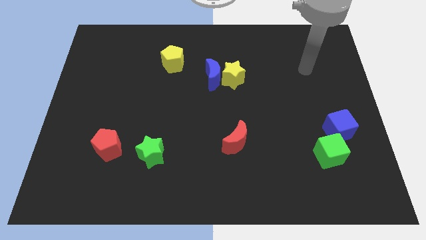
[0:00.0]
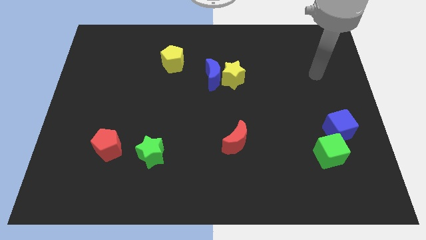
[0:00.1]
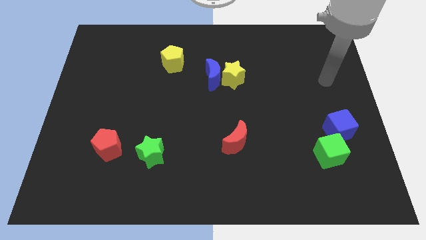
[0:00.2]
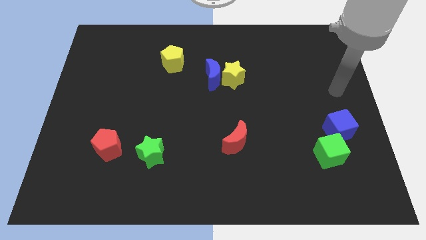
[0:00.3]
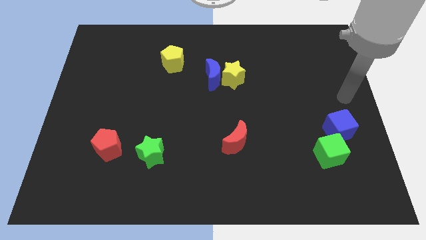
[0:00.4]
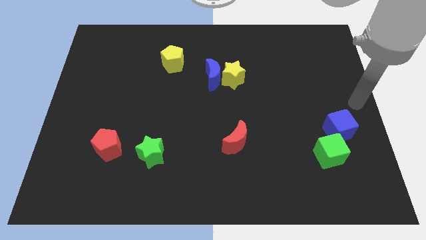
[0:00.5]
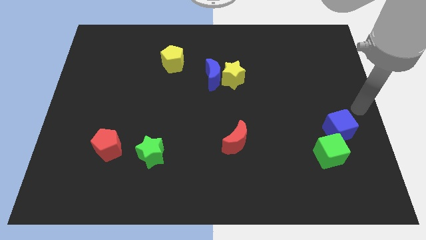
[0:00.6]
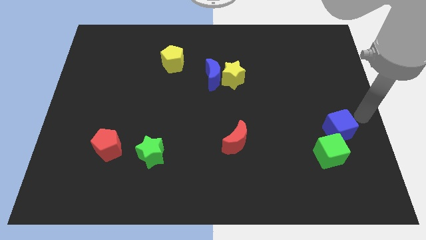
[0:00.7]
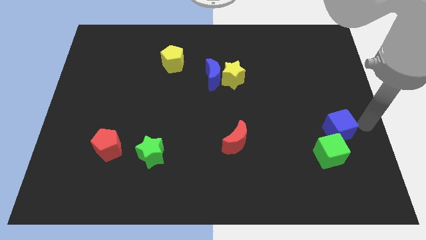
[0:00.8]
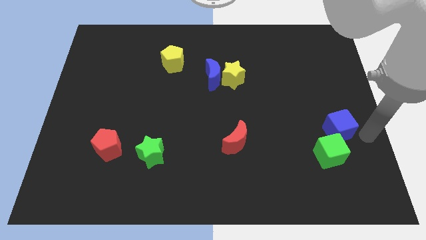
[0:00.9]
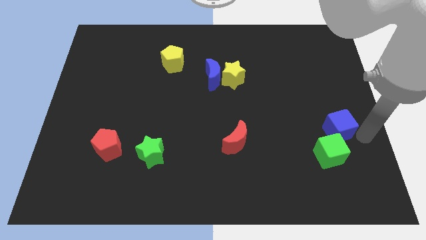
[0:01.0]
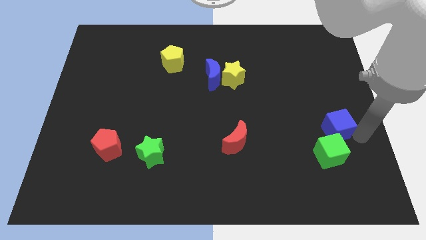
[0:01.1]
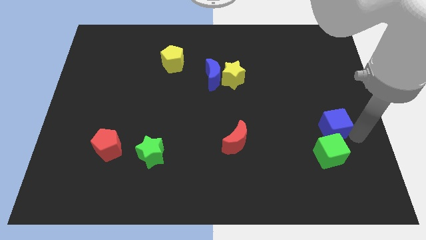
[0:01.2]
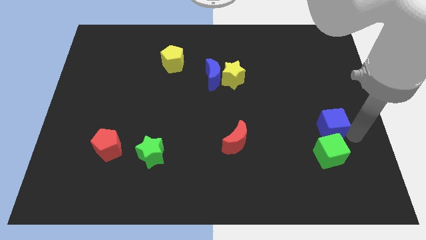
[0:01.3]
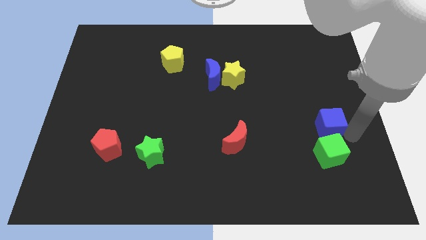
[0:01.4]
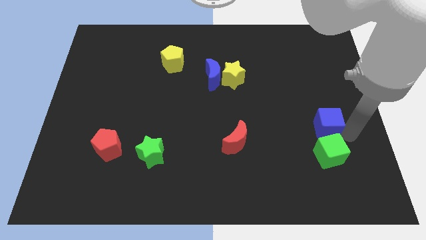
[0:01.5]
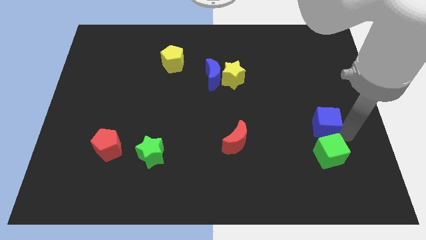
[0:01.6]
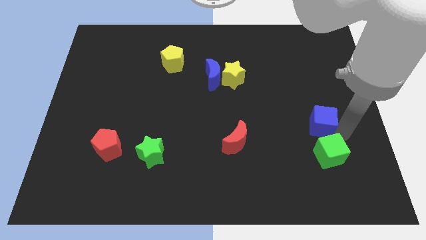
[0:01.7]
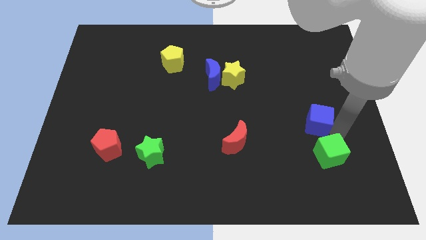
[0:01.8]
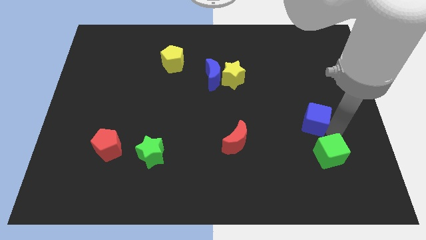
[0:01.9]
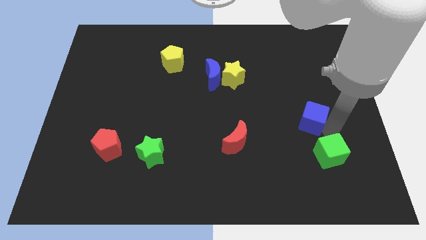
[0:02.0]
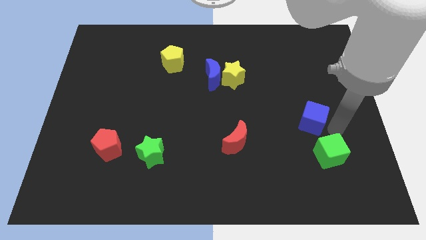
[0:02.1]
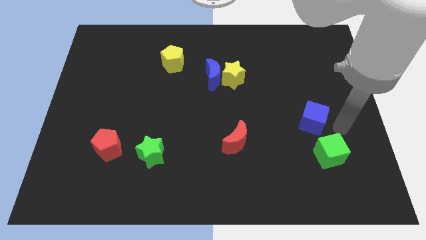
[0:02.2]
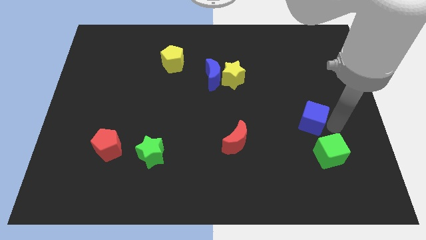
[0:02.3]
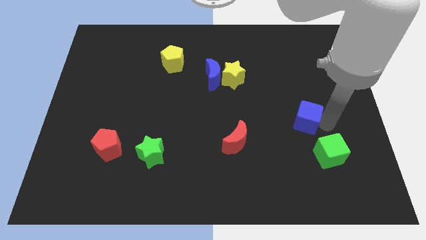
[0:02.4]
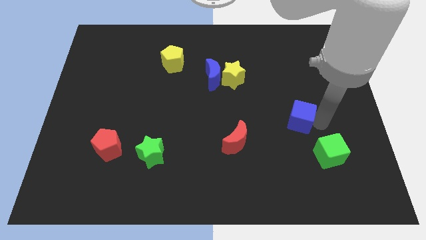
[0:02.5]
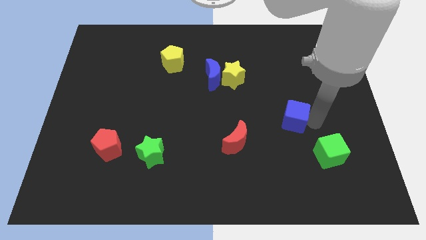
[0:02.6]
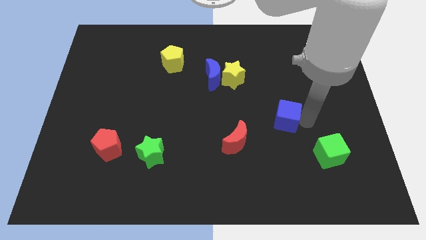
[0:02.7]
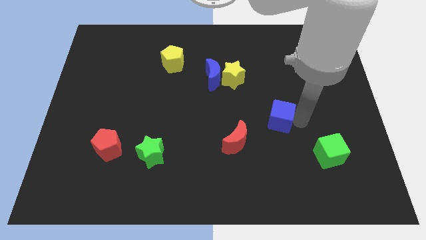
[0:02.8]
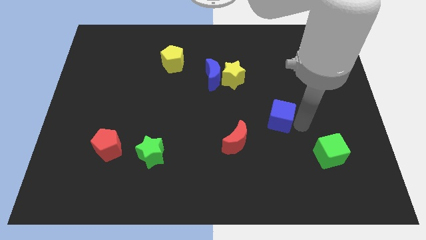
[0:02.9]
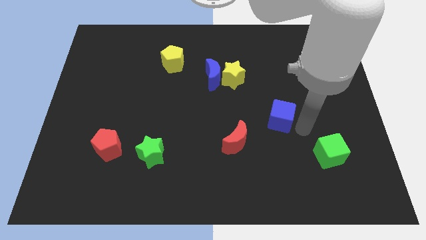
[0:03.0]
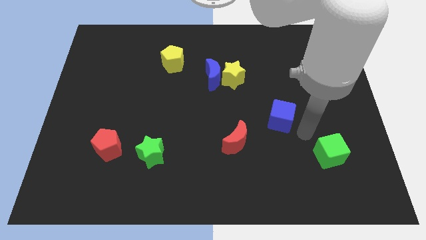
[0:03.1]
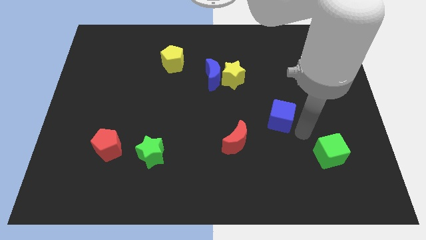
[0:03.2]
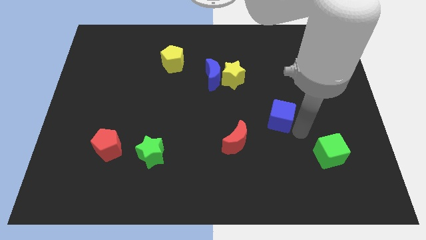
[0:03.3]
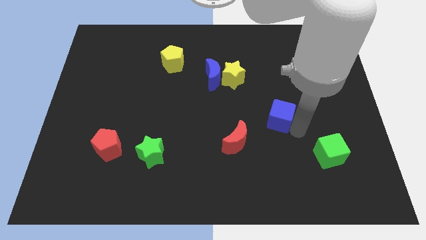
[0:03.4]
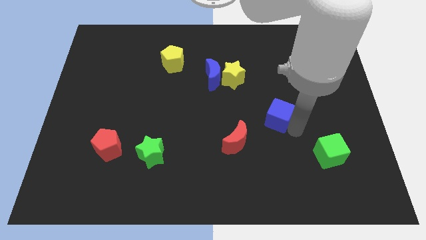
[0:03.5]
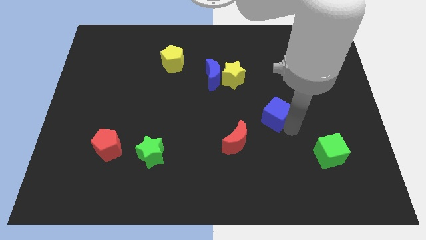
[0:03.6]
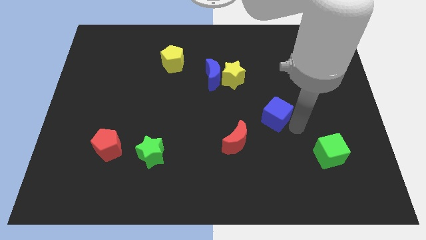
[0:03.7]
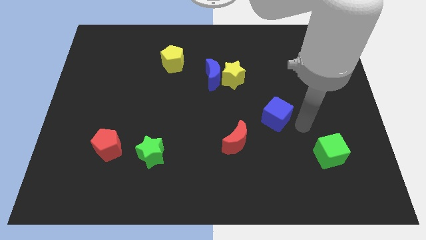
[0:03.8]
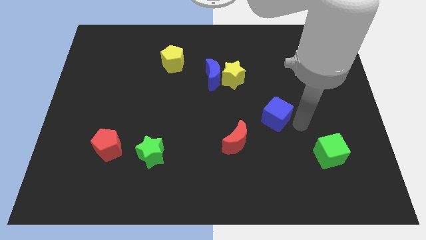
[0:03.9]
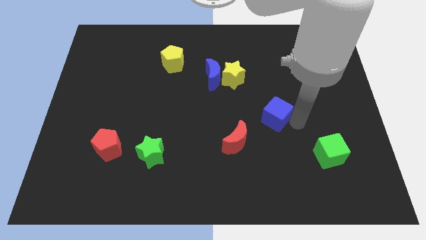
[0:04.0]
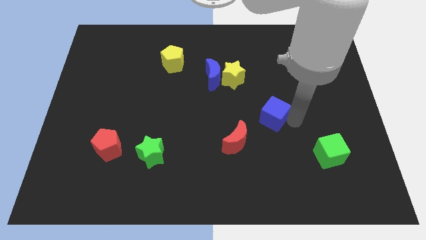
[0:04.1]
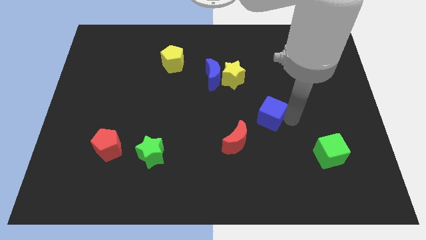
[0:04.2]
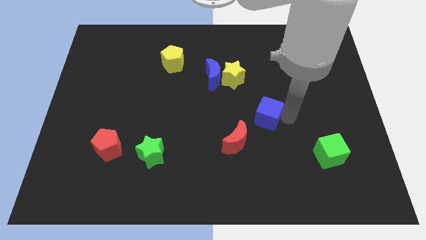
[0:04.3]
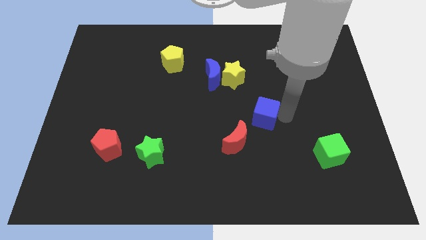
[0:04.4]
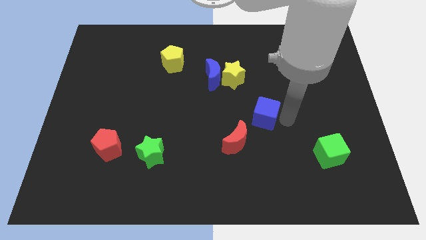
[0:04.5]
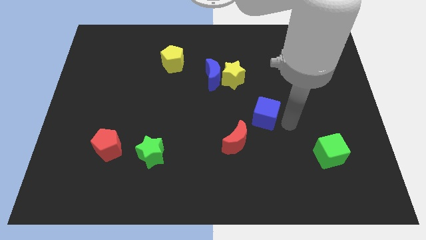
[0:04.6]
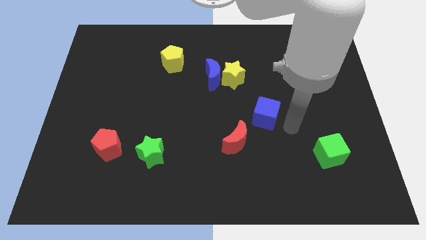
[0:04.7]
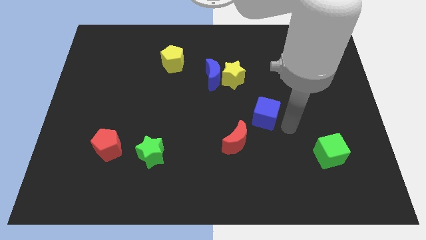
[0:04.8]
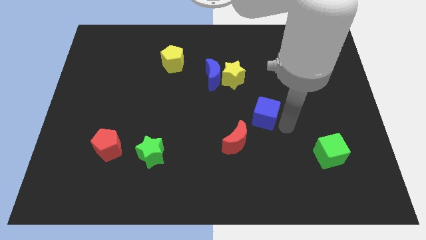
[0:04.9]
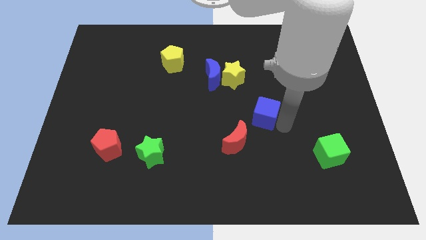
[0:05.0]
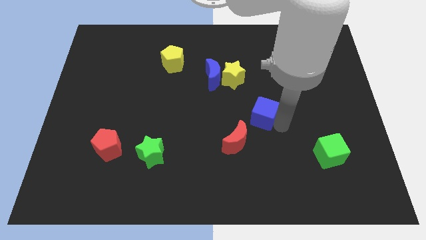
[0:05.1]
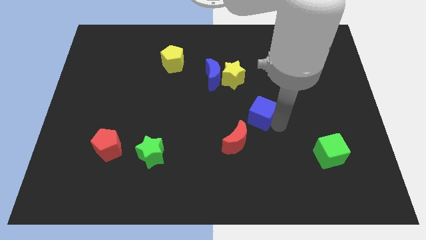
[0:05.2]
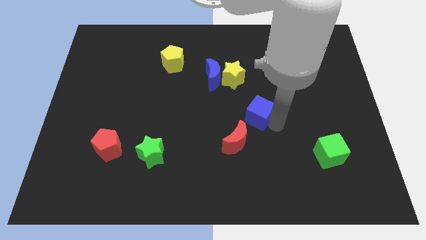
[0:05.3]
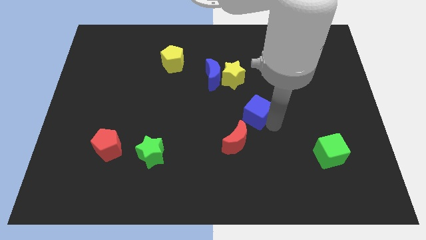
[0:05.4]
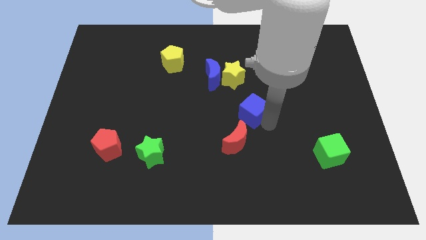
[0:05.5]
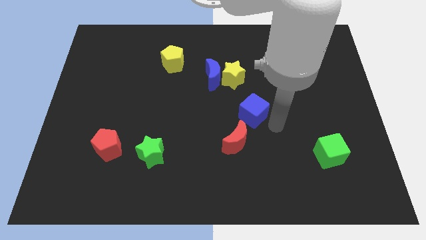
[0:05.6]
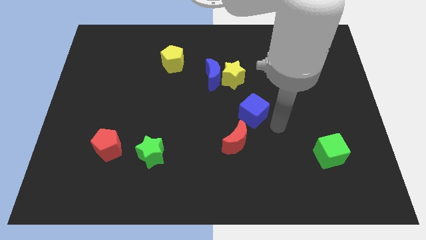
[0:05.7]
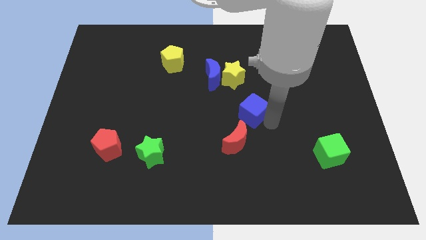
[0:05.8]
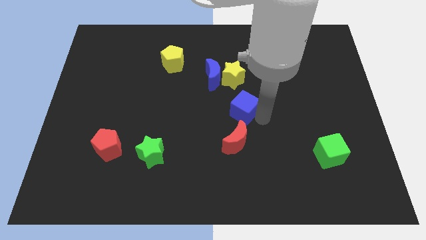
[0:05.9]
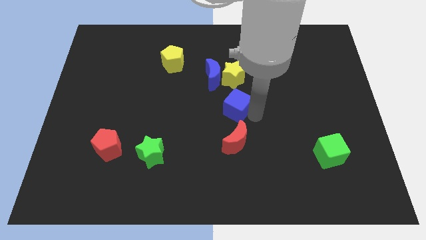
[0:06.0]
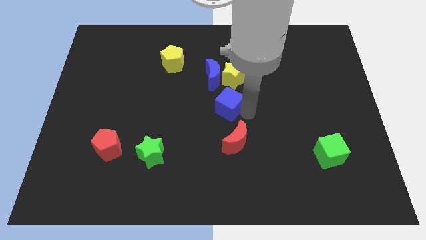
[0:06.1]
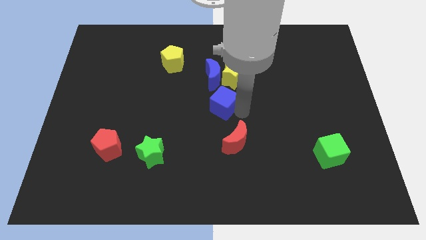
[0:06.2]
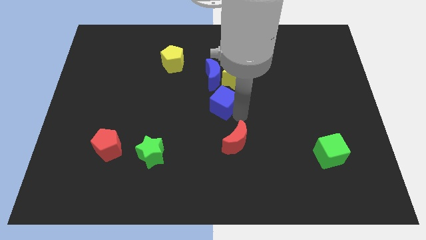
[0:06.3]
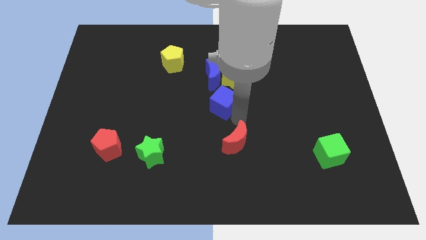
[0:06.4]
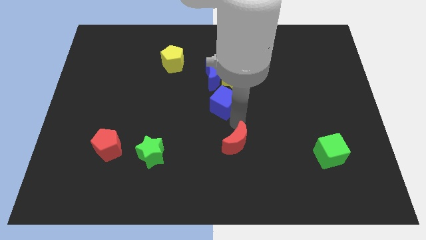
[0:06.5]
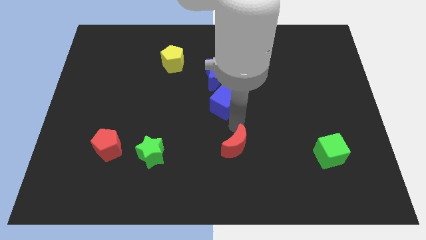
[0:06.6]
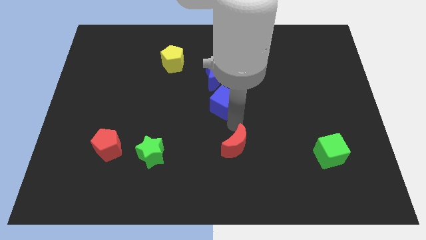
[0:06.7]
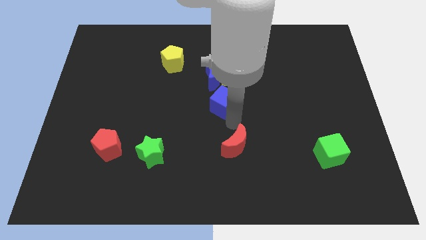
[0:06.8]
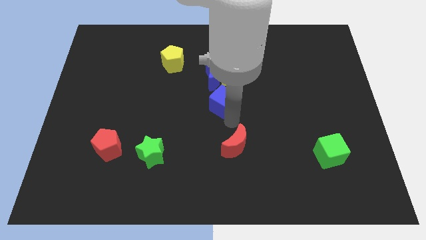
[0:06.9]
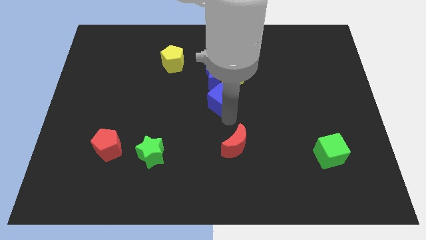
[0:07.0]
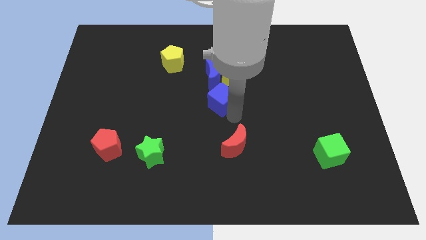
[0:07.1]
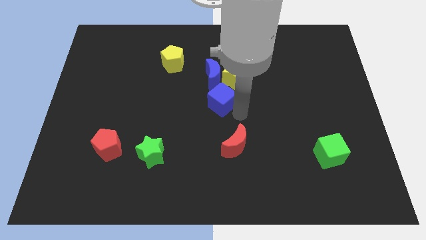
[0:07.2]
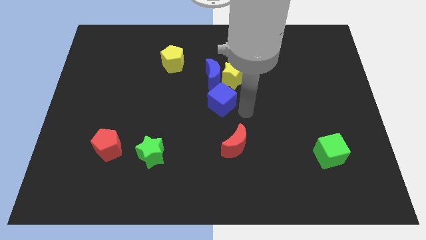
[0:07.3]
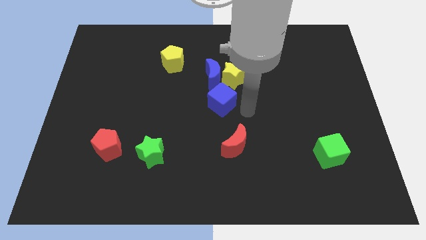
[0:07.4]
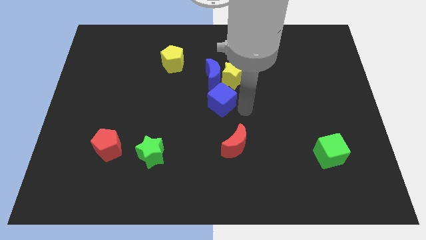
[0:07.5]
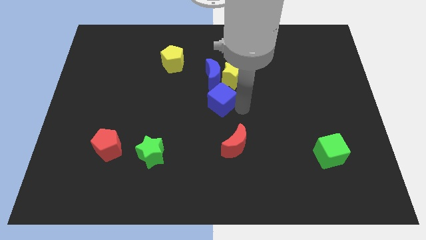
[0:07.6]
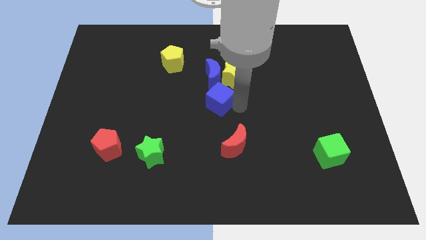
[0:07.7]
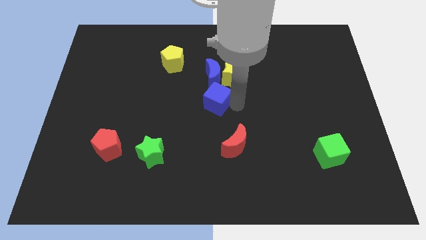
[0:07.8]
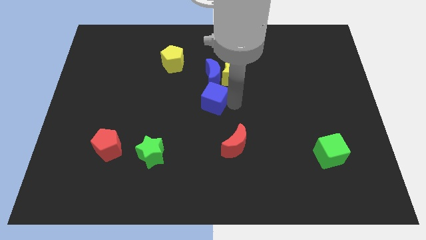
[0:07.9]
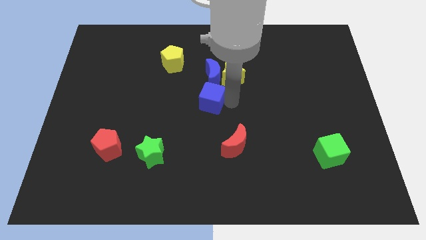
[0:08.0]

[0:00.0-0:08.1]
slide the blue cube to the bottom left side of the blue moon

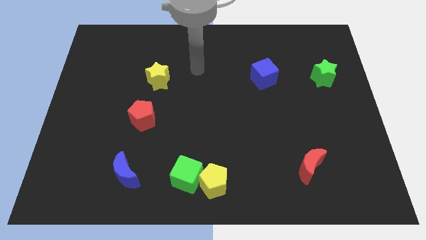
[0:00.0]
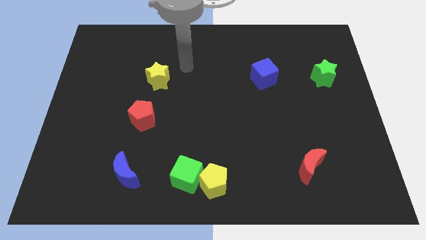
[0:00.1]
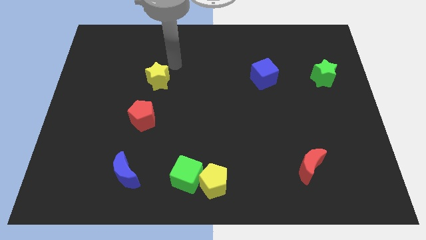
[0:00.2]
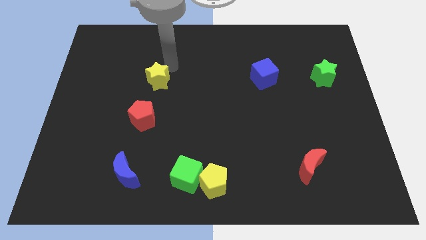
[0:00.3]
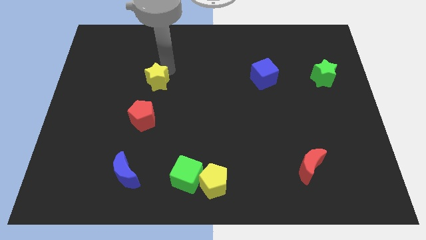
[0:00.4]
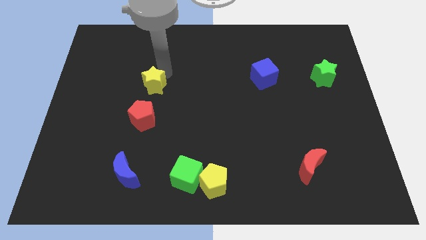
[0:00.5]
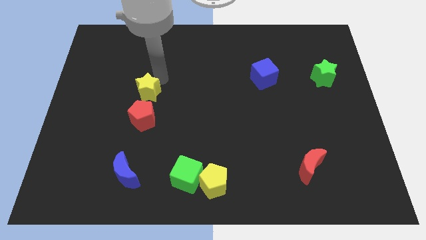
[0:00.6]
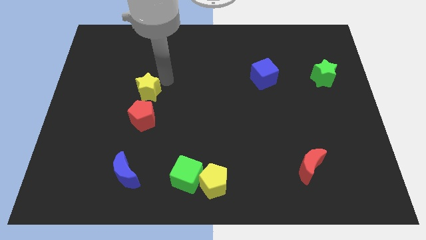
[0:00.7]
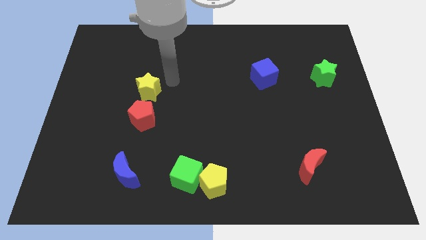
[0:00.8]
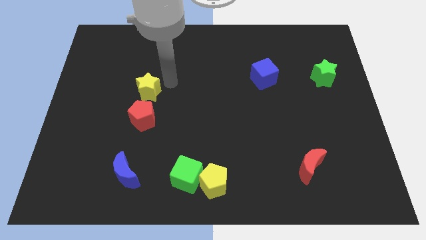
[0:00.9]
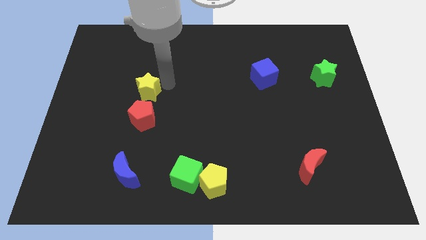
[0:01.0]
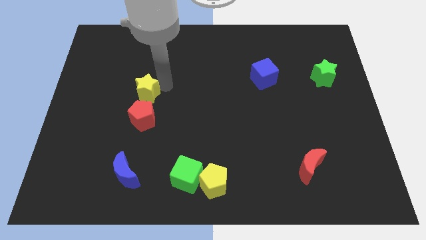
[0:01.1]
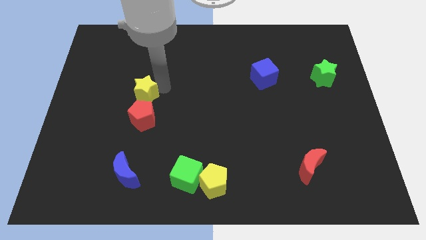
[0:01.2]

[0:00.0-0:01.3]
push the yellow star to the top left side of the red pentagon
